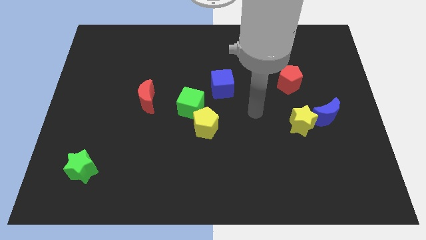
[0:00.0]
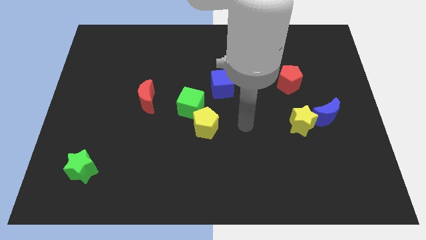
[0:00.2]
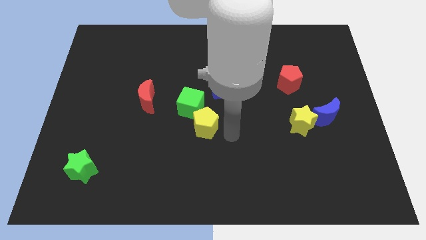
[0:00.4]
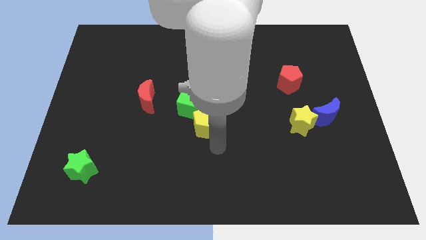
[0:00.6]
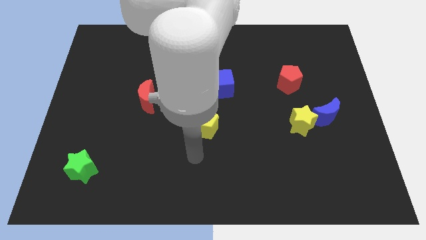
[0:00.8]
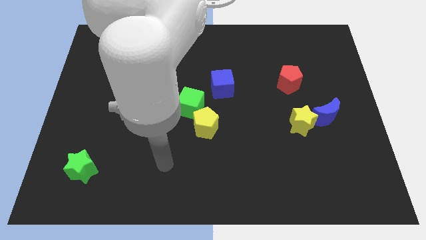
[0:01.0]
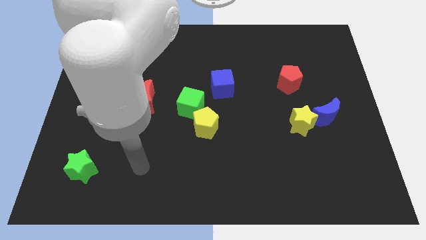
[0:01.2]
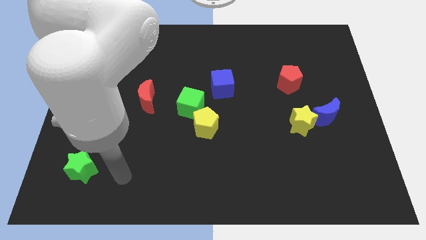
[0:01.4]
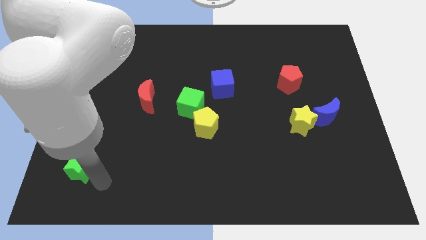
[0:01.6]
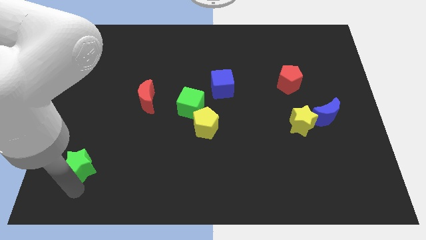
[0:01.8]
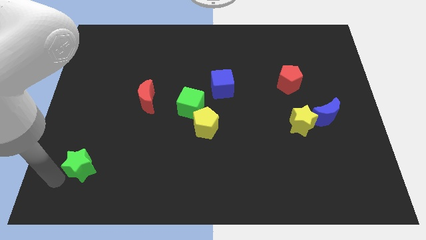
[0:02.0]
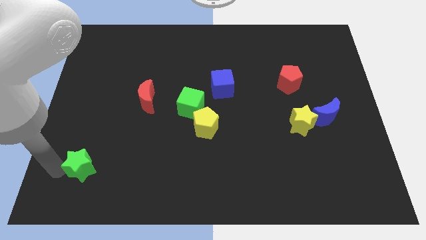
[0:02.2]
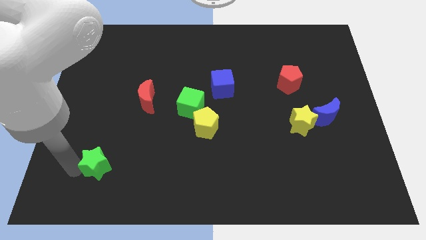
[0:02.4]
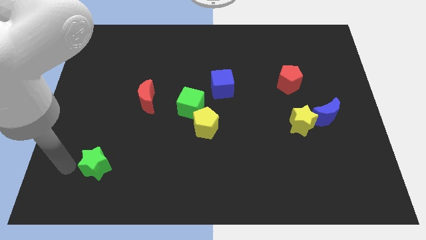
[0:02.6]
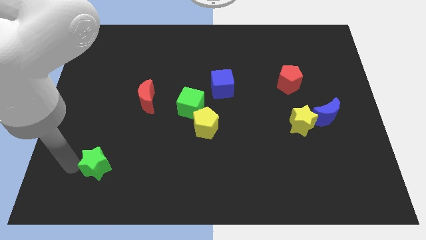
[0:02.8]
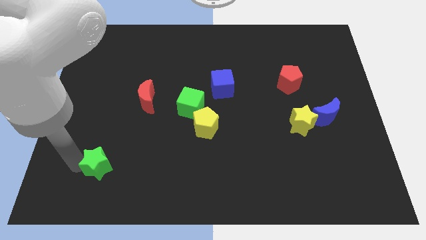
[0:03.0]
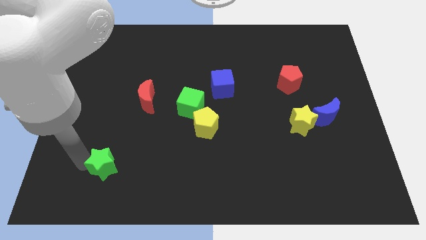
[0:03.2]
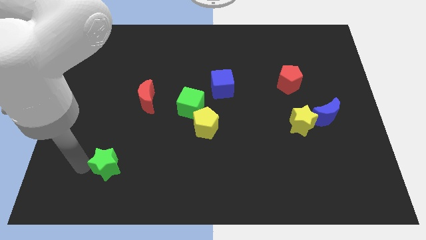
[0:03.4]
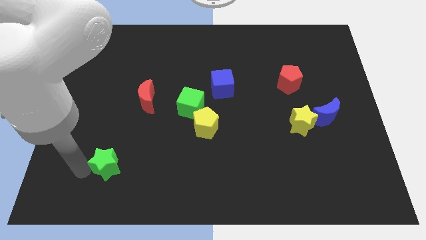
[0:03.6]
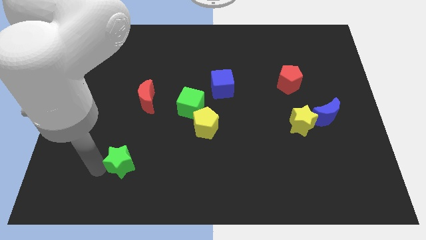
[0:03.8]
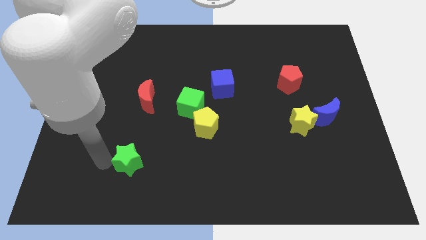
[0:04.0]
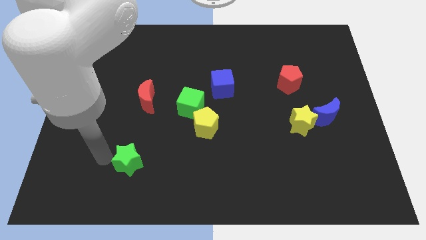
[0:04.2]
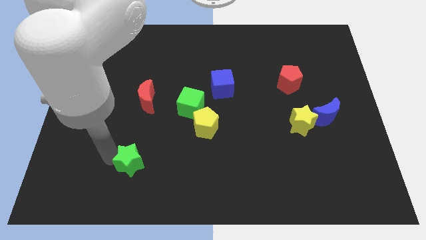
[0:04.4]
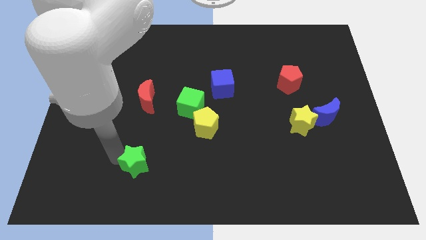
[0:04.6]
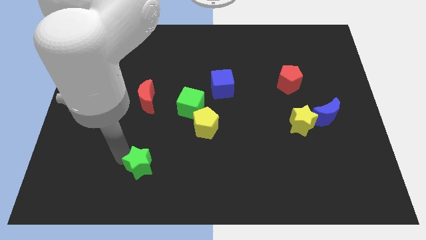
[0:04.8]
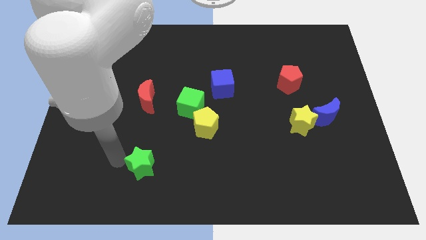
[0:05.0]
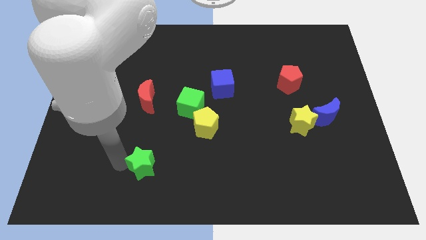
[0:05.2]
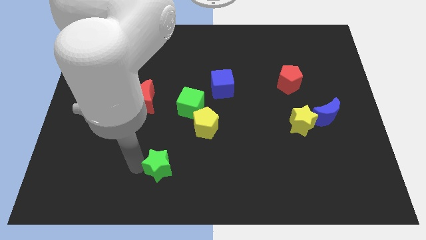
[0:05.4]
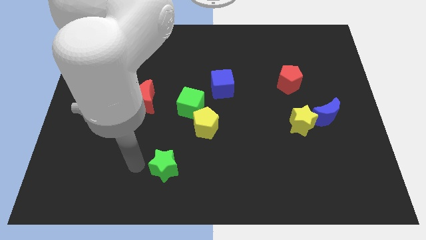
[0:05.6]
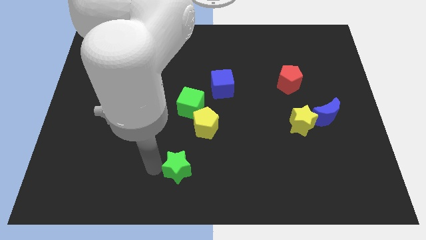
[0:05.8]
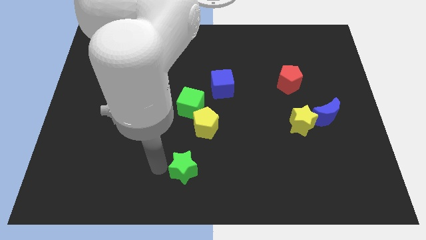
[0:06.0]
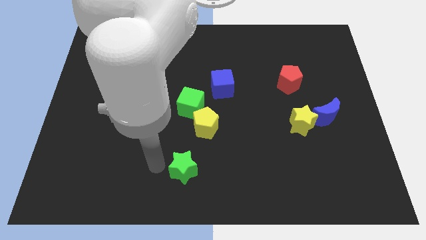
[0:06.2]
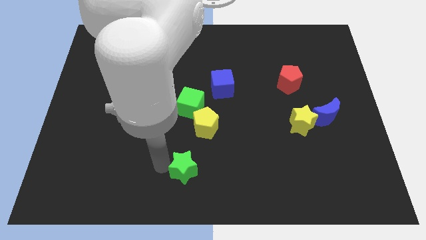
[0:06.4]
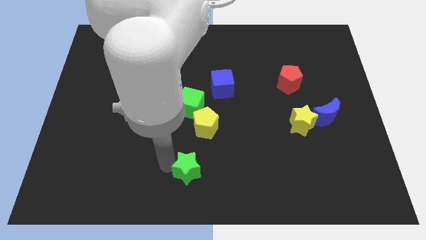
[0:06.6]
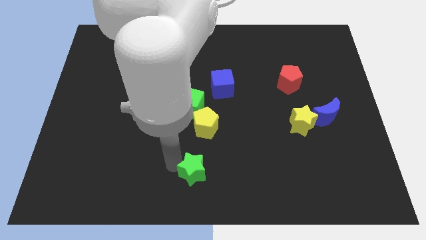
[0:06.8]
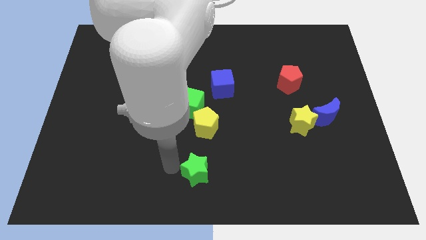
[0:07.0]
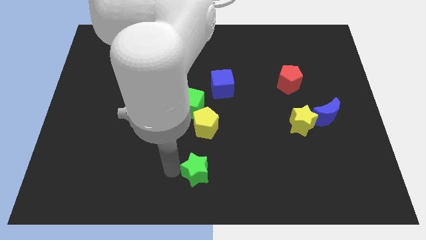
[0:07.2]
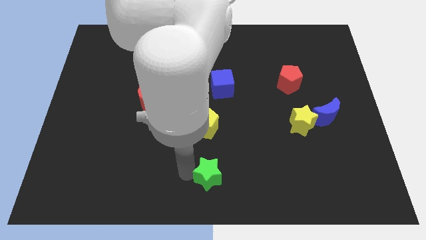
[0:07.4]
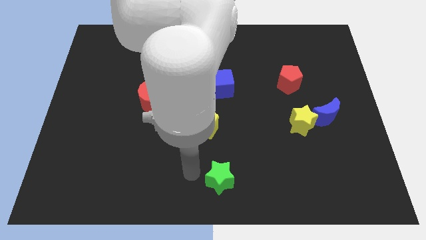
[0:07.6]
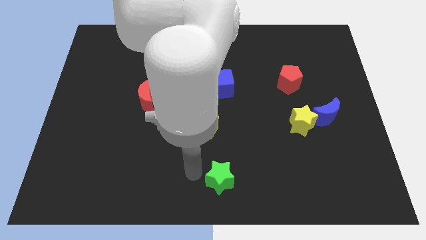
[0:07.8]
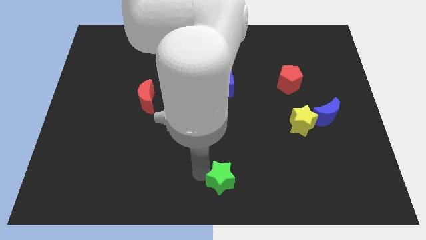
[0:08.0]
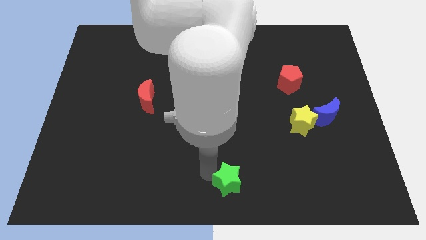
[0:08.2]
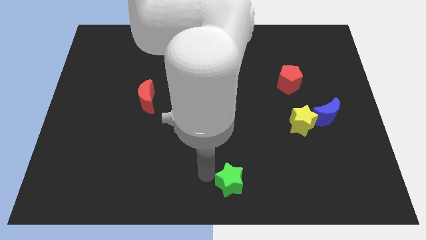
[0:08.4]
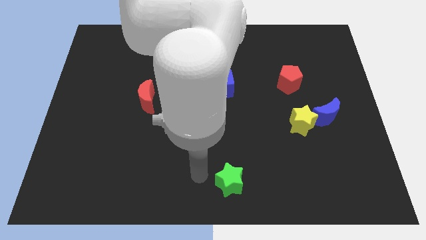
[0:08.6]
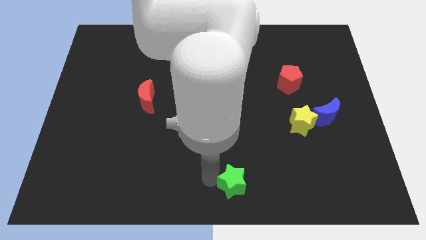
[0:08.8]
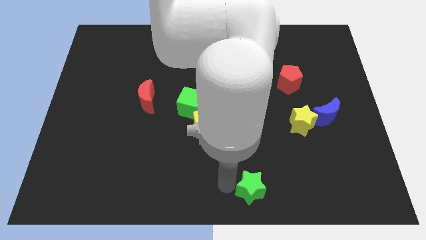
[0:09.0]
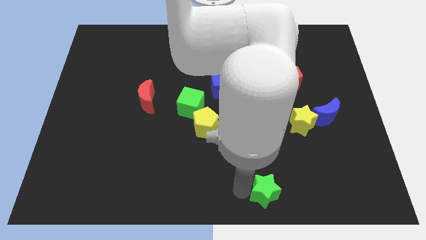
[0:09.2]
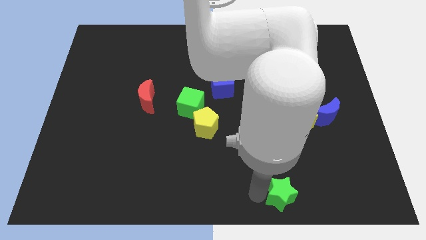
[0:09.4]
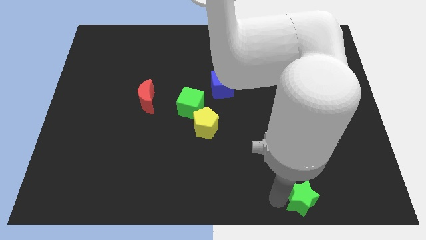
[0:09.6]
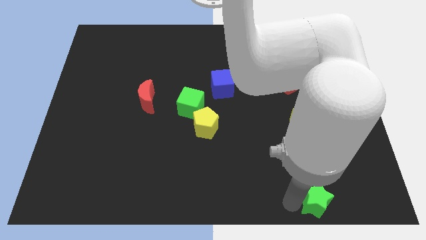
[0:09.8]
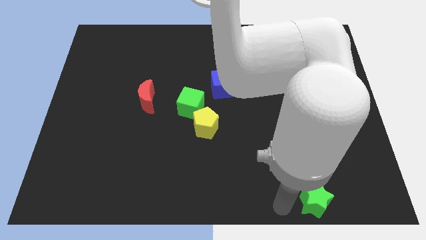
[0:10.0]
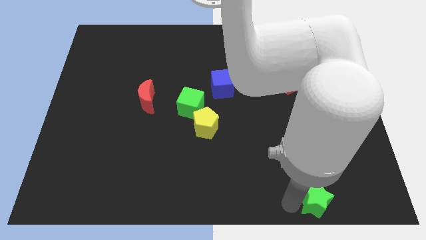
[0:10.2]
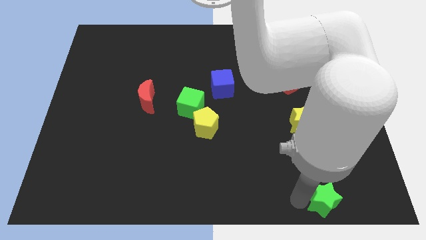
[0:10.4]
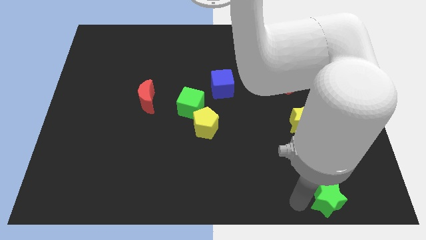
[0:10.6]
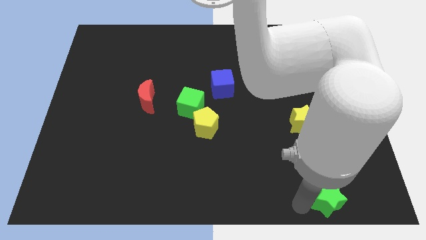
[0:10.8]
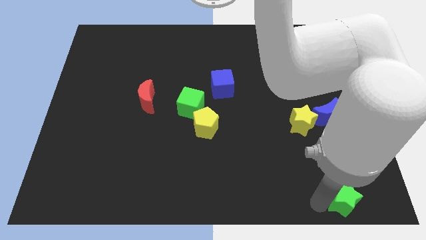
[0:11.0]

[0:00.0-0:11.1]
move the green star to the lower right corner

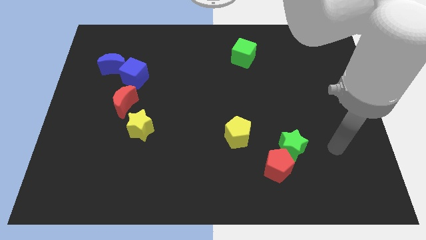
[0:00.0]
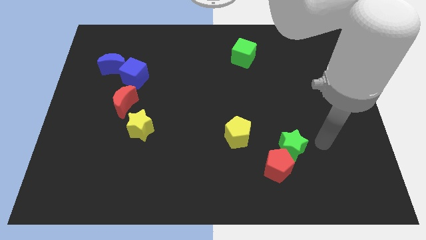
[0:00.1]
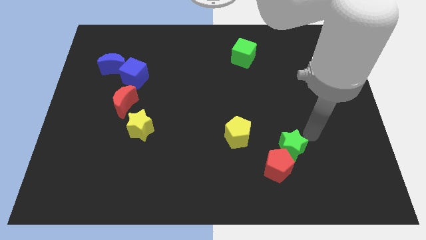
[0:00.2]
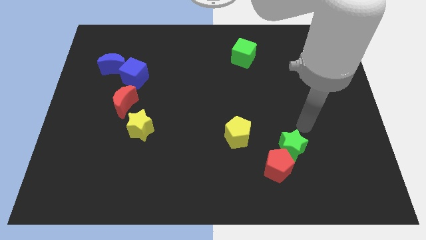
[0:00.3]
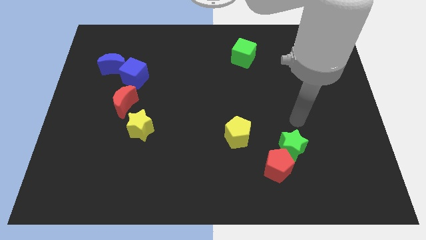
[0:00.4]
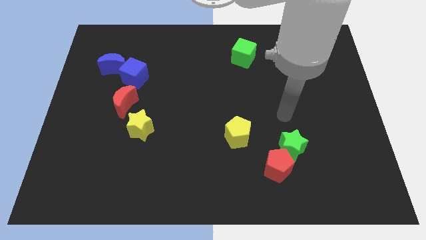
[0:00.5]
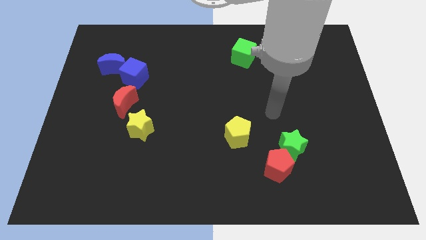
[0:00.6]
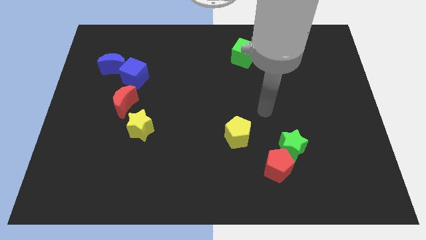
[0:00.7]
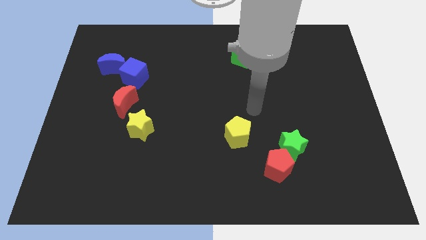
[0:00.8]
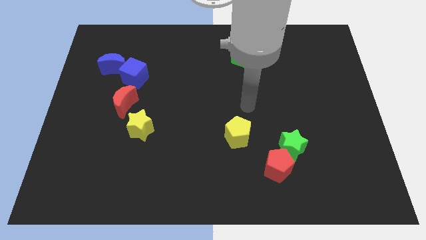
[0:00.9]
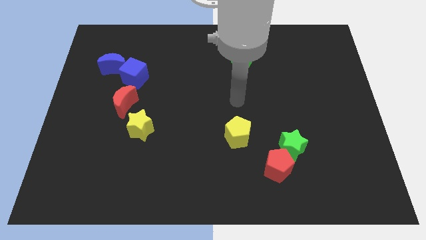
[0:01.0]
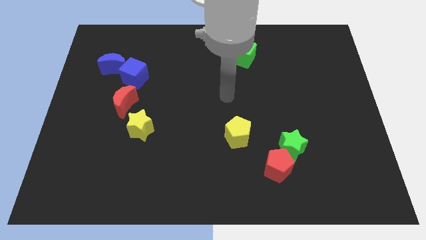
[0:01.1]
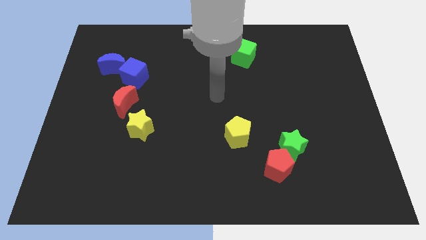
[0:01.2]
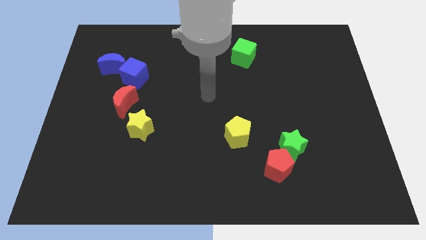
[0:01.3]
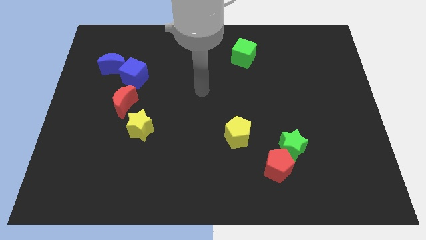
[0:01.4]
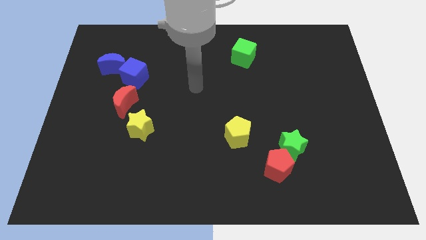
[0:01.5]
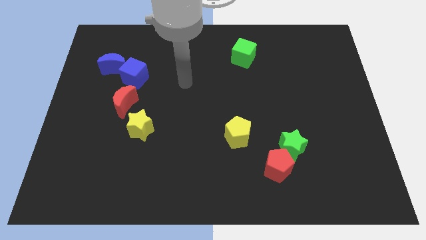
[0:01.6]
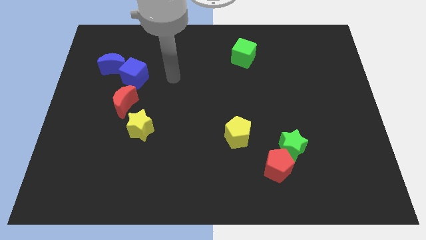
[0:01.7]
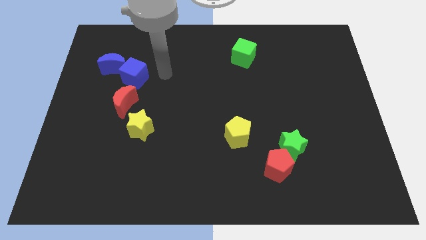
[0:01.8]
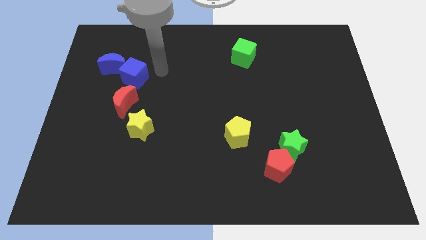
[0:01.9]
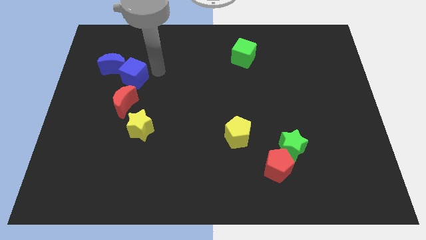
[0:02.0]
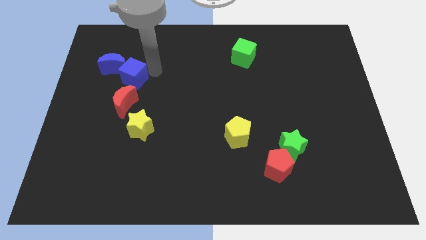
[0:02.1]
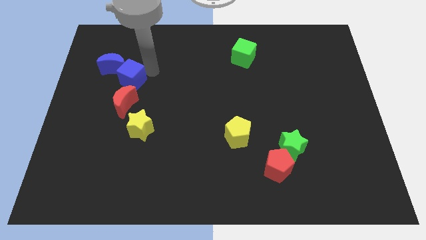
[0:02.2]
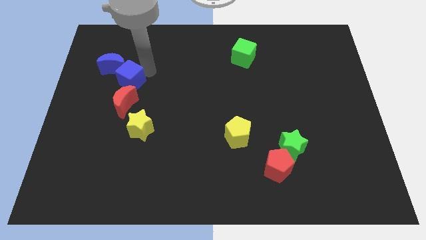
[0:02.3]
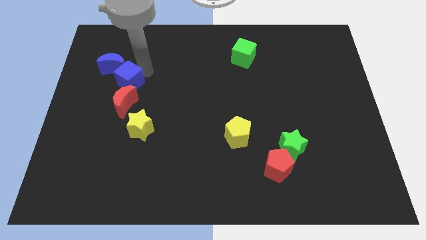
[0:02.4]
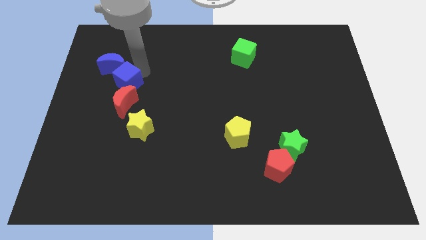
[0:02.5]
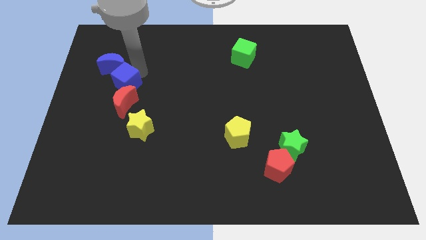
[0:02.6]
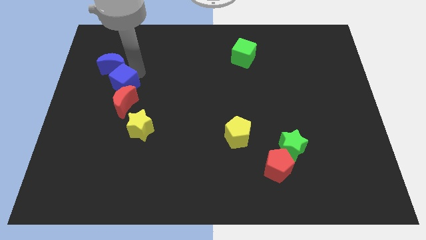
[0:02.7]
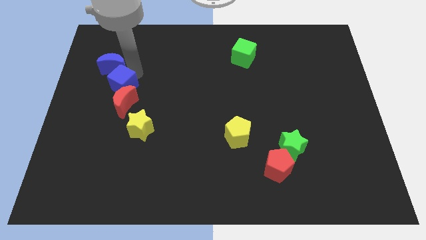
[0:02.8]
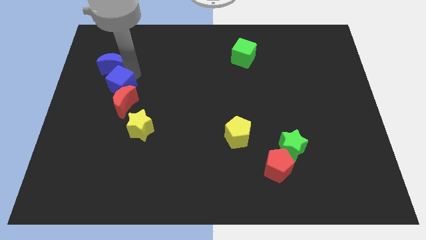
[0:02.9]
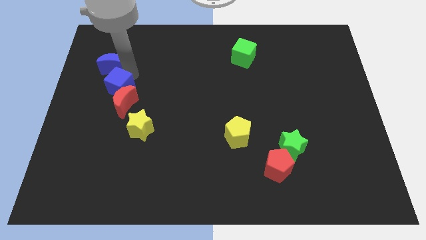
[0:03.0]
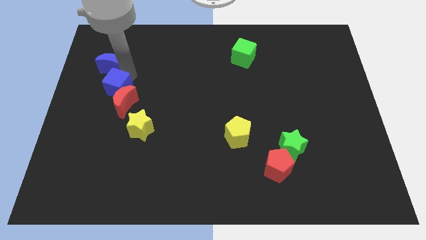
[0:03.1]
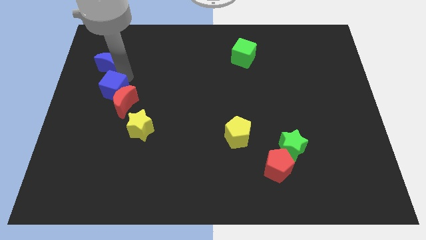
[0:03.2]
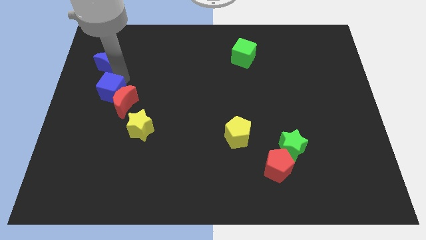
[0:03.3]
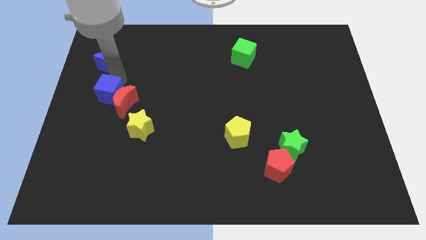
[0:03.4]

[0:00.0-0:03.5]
slide the blue cube to the center left
